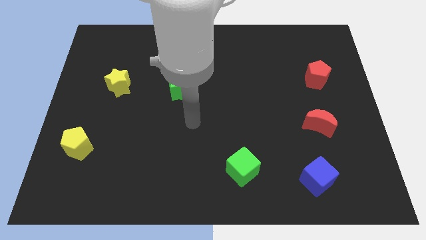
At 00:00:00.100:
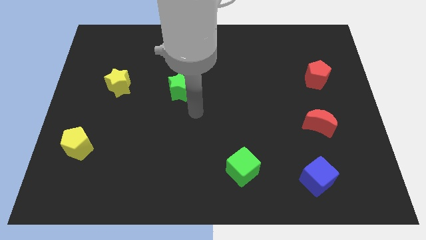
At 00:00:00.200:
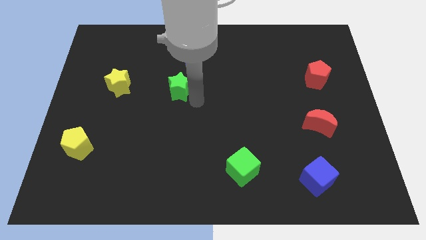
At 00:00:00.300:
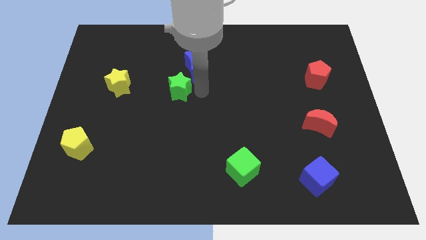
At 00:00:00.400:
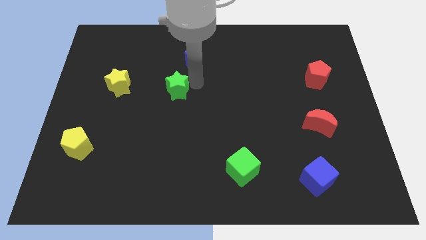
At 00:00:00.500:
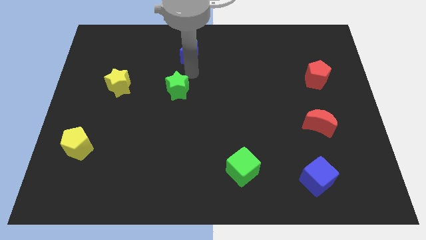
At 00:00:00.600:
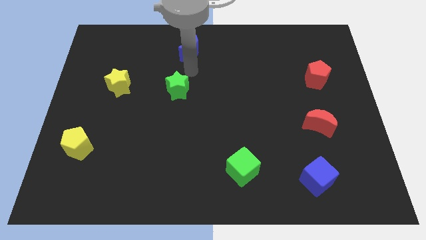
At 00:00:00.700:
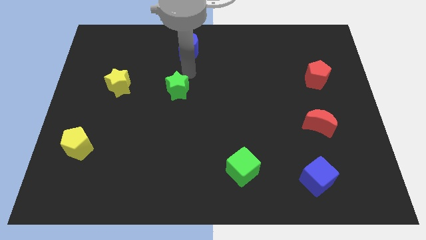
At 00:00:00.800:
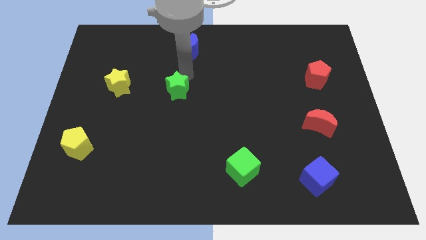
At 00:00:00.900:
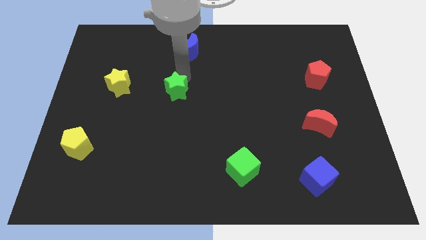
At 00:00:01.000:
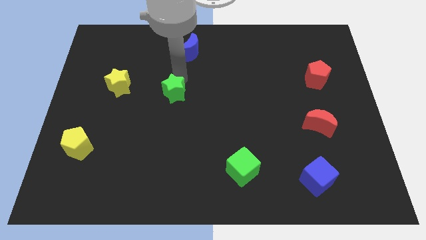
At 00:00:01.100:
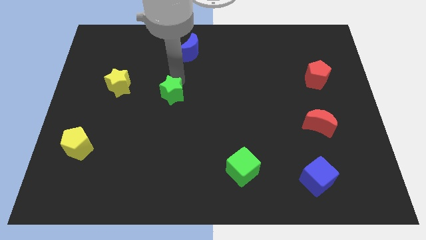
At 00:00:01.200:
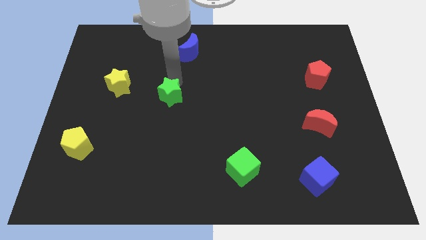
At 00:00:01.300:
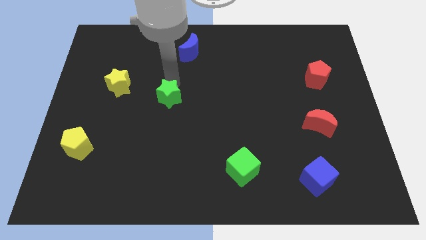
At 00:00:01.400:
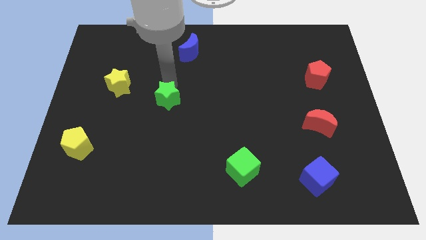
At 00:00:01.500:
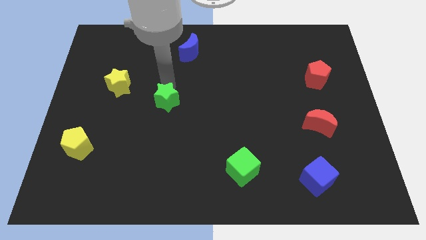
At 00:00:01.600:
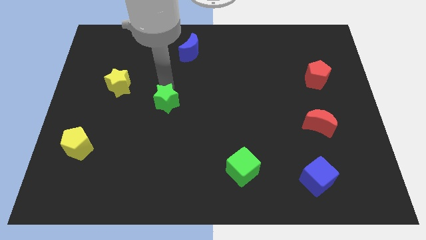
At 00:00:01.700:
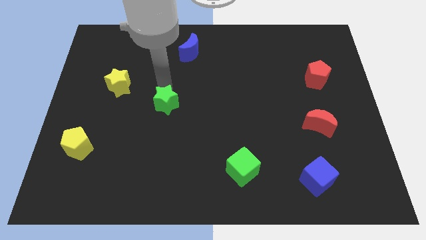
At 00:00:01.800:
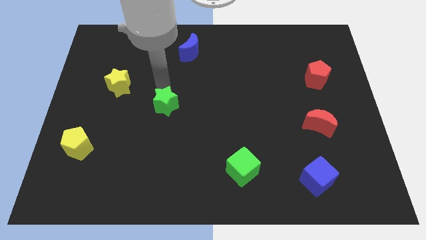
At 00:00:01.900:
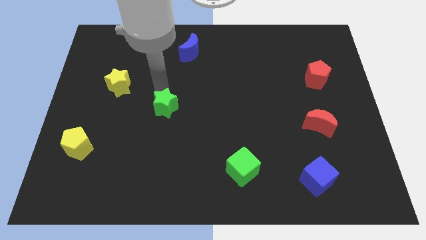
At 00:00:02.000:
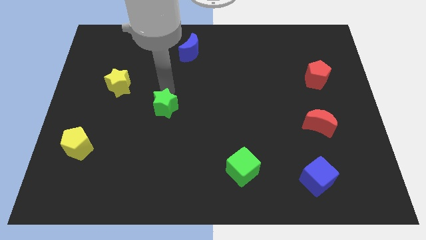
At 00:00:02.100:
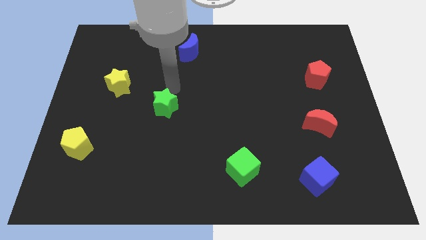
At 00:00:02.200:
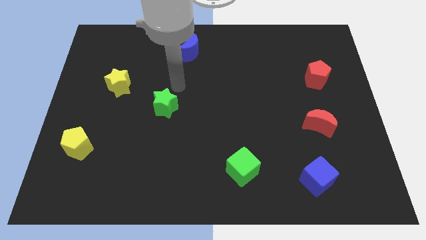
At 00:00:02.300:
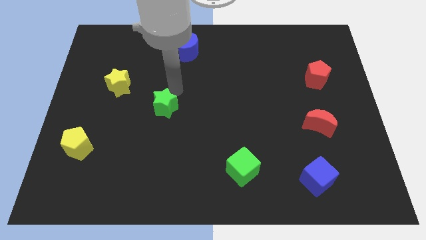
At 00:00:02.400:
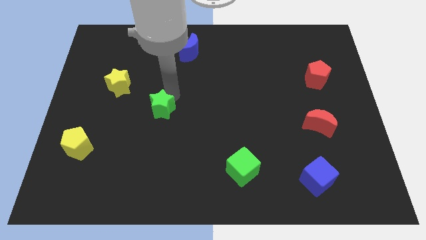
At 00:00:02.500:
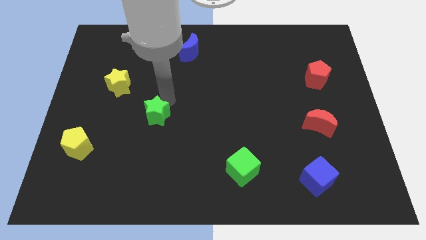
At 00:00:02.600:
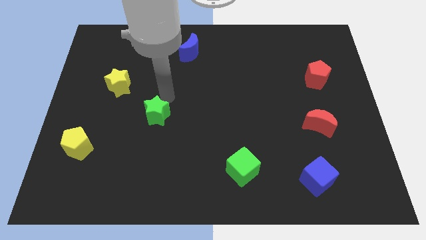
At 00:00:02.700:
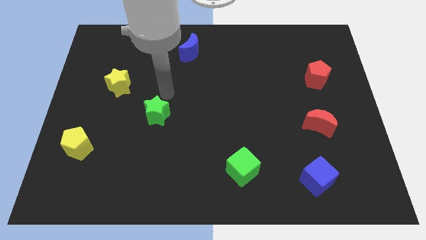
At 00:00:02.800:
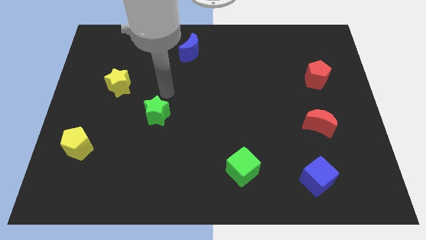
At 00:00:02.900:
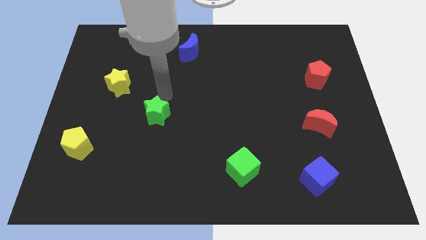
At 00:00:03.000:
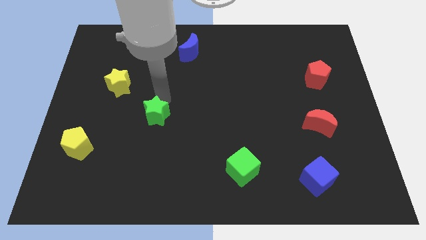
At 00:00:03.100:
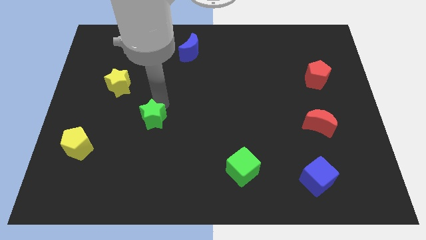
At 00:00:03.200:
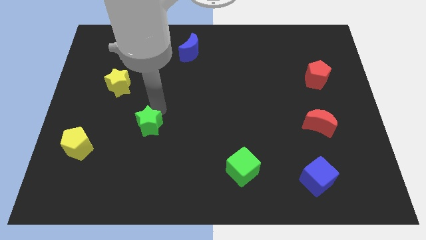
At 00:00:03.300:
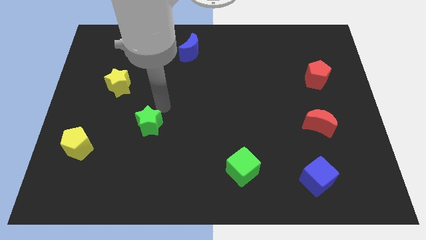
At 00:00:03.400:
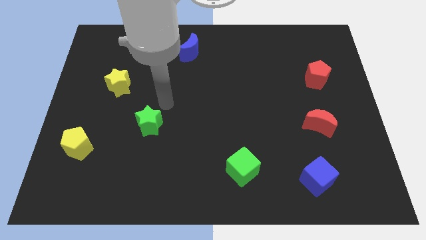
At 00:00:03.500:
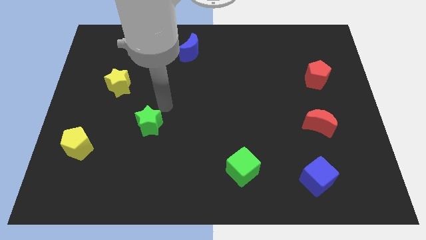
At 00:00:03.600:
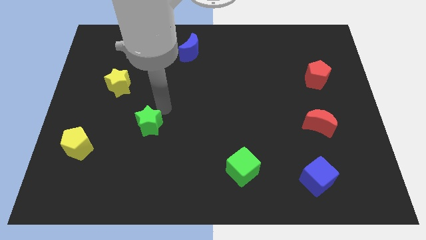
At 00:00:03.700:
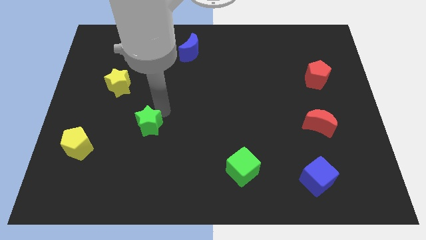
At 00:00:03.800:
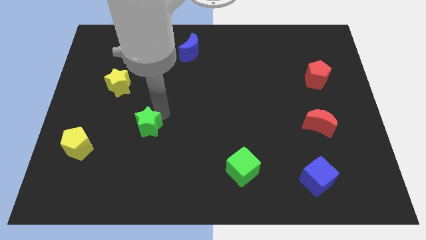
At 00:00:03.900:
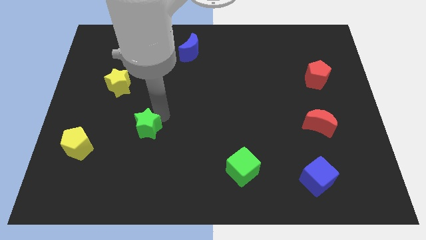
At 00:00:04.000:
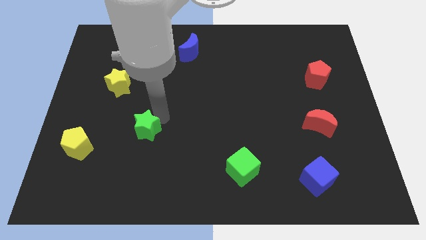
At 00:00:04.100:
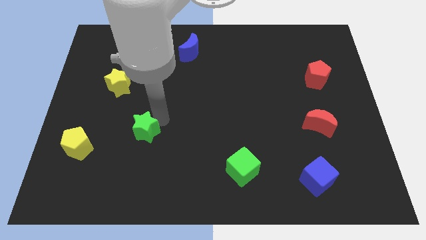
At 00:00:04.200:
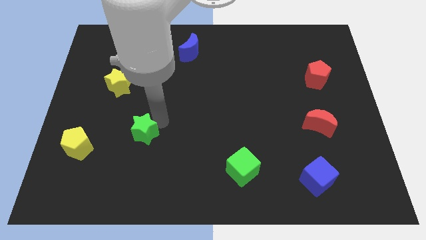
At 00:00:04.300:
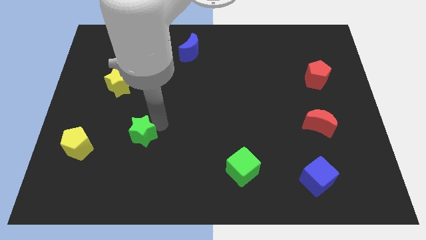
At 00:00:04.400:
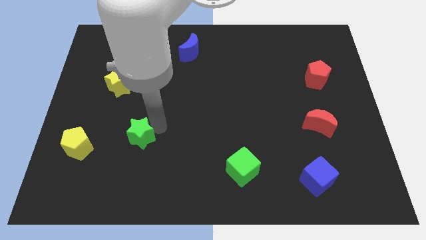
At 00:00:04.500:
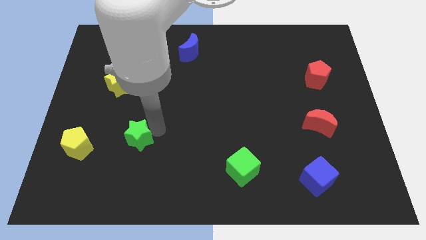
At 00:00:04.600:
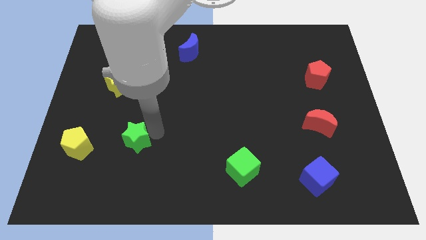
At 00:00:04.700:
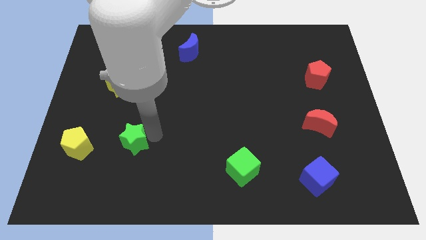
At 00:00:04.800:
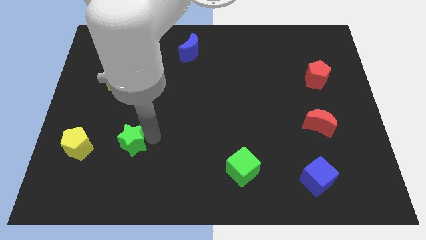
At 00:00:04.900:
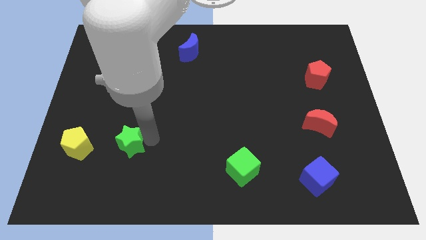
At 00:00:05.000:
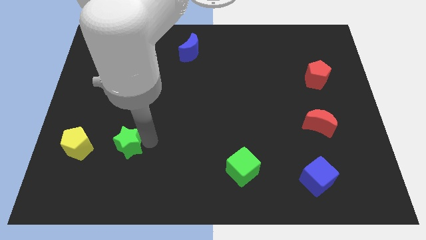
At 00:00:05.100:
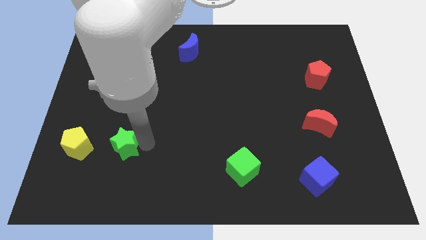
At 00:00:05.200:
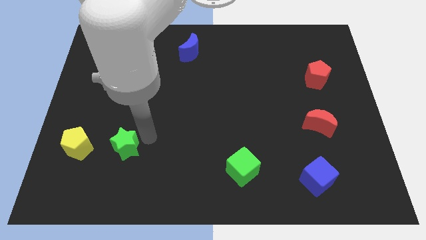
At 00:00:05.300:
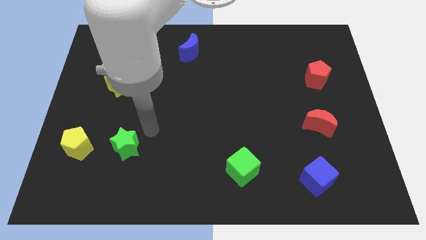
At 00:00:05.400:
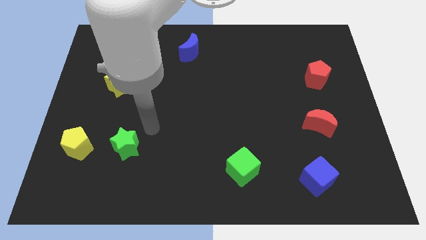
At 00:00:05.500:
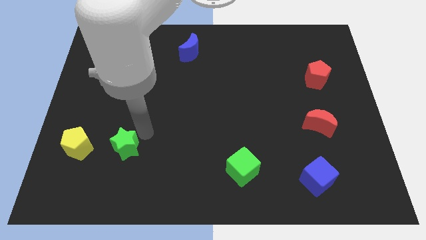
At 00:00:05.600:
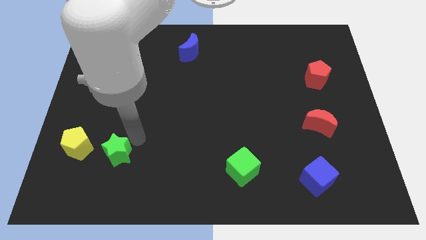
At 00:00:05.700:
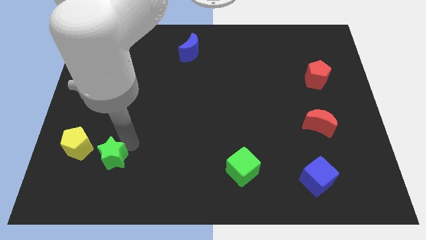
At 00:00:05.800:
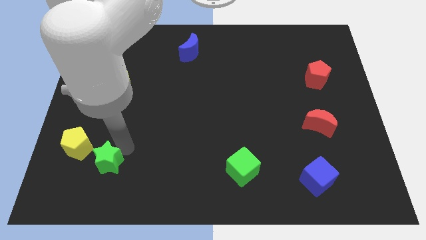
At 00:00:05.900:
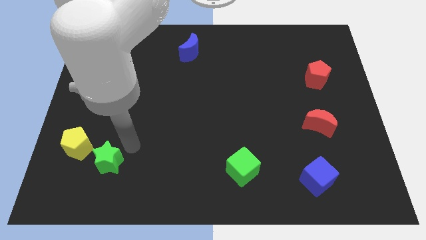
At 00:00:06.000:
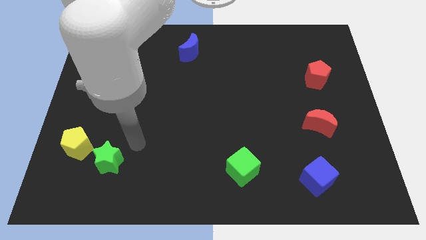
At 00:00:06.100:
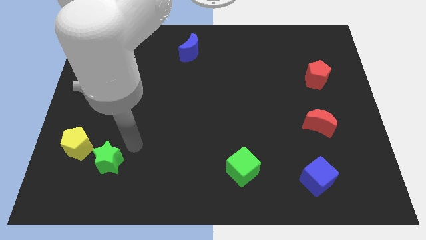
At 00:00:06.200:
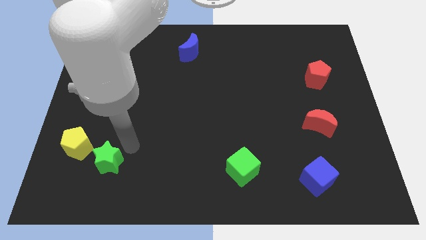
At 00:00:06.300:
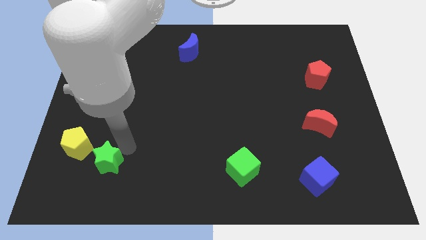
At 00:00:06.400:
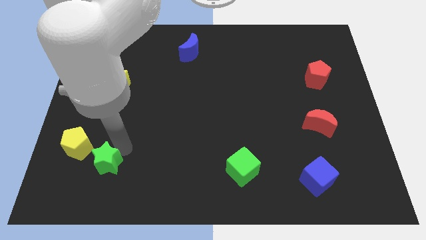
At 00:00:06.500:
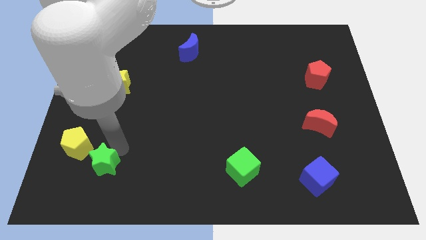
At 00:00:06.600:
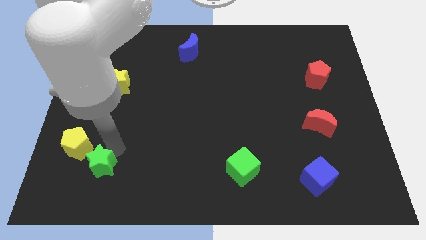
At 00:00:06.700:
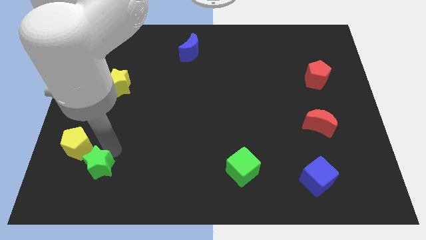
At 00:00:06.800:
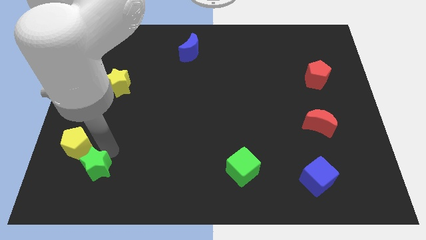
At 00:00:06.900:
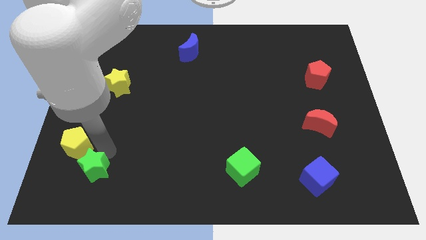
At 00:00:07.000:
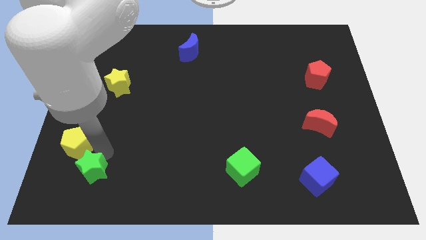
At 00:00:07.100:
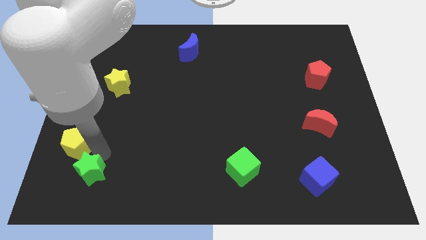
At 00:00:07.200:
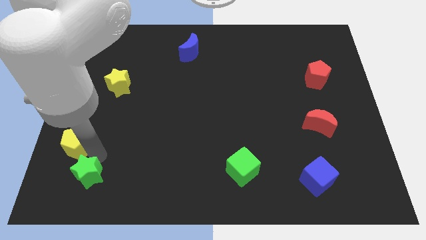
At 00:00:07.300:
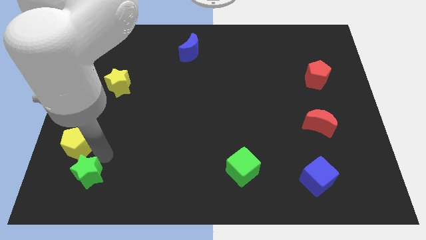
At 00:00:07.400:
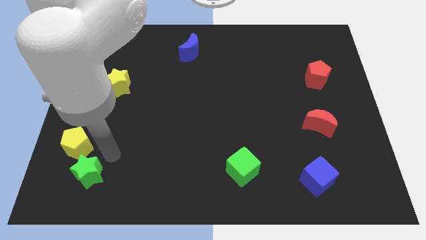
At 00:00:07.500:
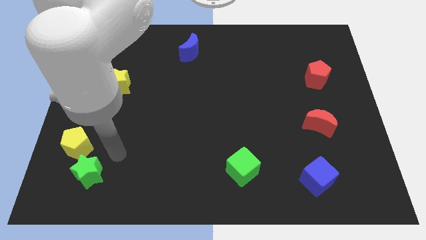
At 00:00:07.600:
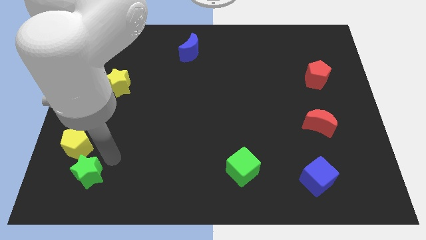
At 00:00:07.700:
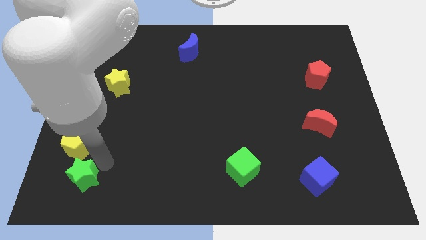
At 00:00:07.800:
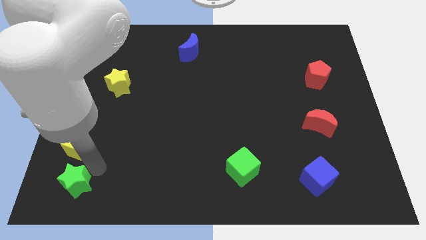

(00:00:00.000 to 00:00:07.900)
move the green star to the bottom left
